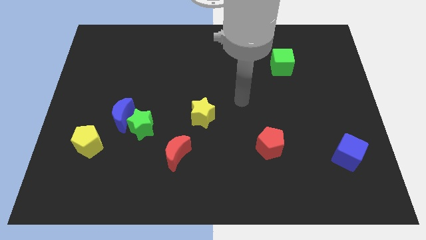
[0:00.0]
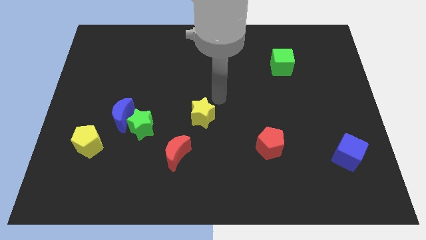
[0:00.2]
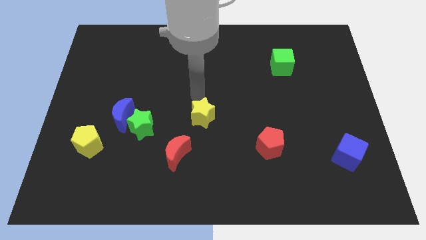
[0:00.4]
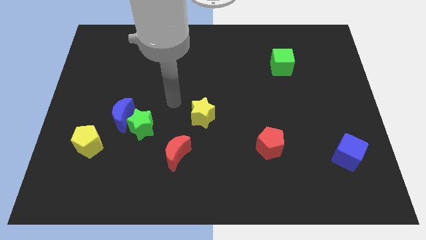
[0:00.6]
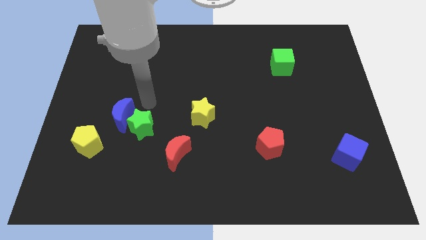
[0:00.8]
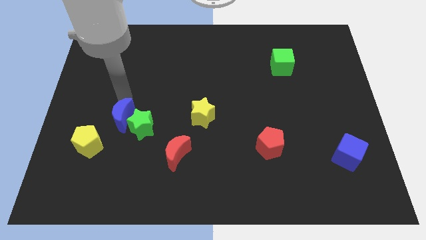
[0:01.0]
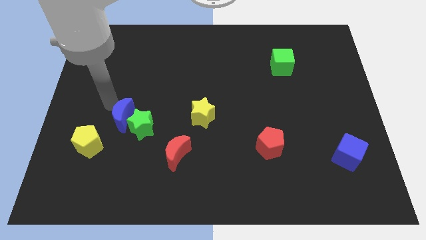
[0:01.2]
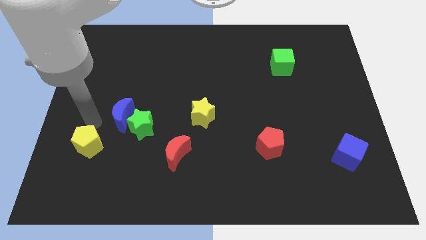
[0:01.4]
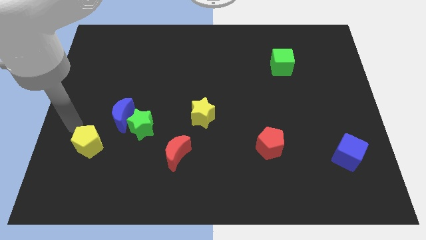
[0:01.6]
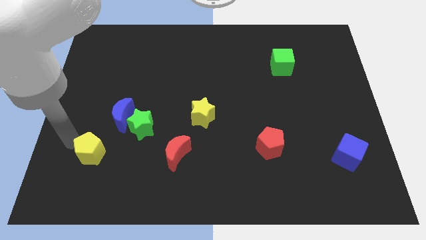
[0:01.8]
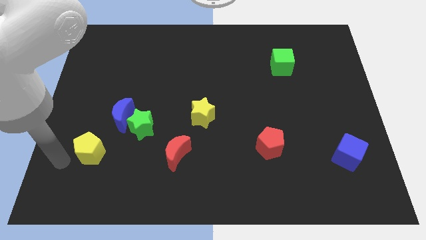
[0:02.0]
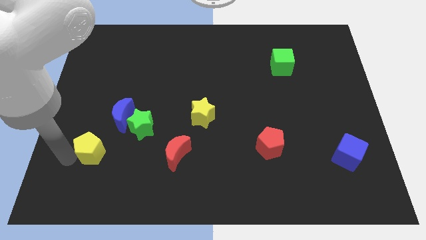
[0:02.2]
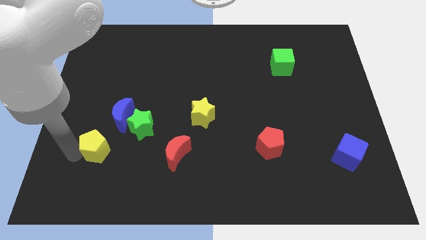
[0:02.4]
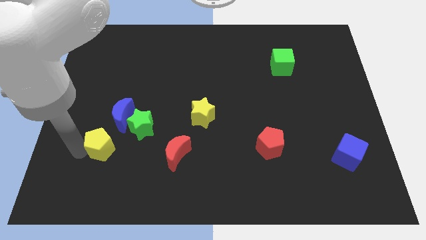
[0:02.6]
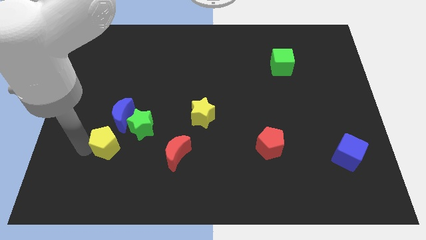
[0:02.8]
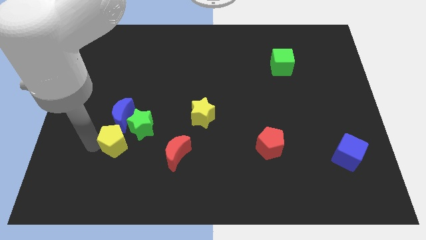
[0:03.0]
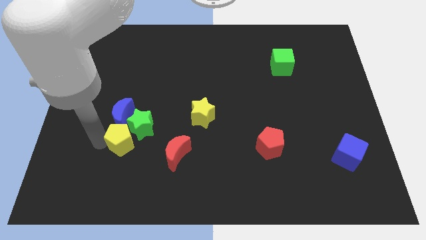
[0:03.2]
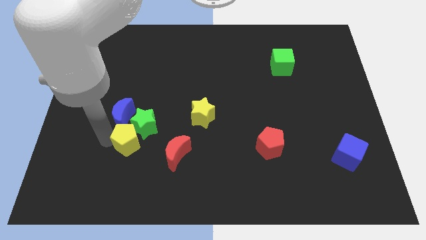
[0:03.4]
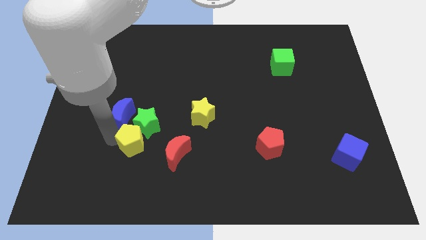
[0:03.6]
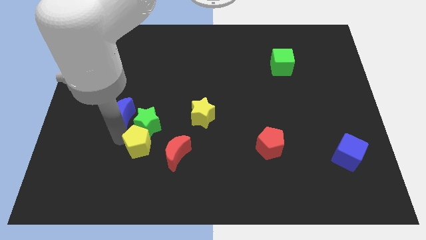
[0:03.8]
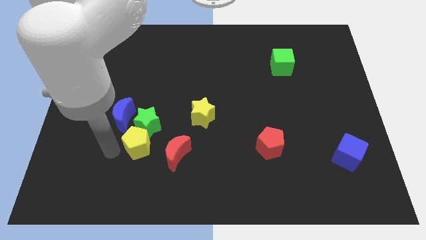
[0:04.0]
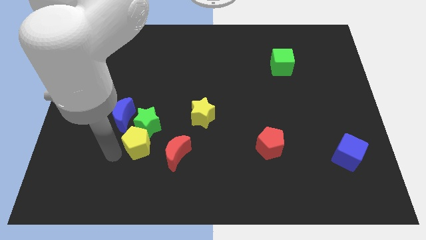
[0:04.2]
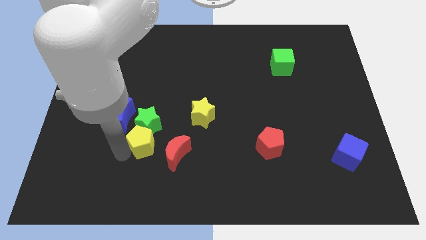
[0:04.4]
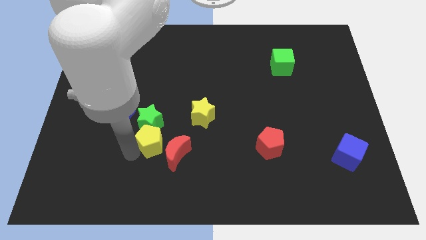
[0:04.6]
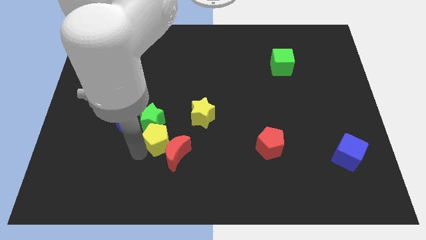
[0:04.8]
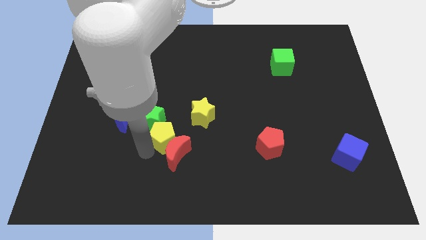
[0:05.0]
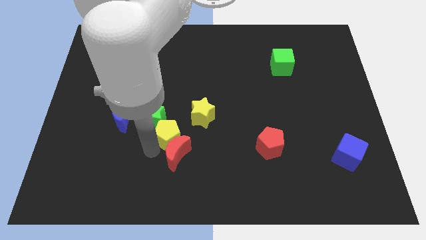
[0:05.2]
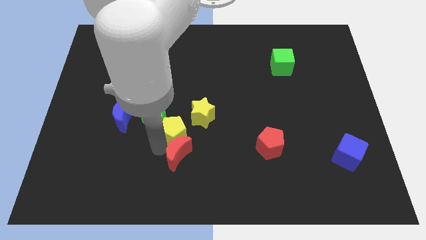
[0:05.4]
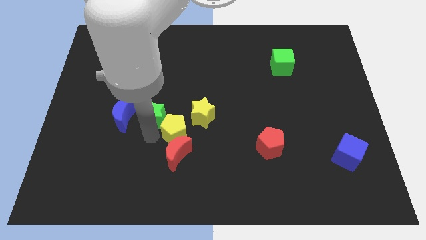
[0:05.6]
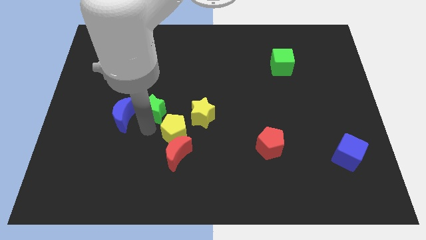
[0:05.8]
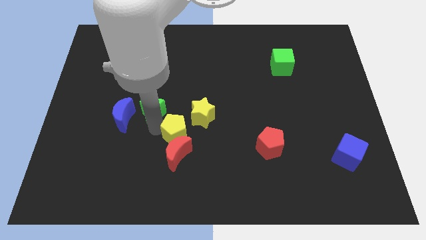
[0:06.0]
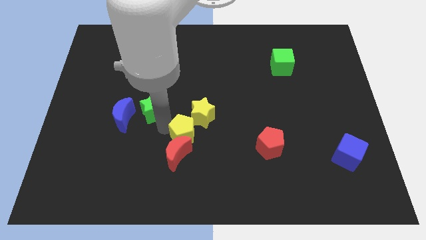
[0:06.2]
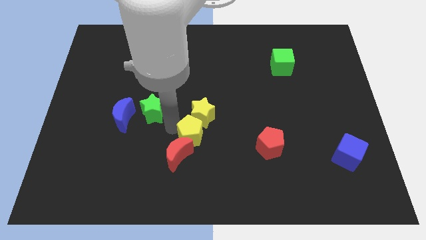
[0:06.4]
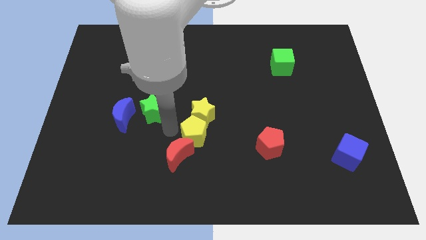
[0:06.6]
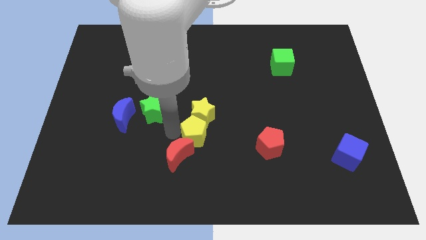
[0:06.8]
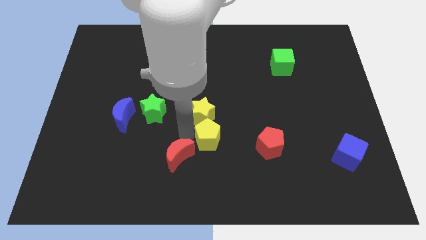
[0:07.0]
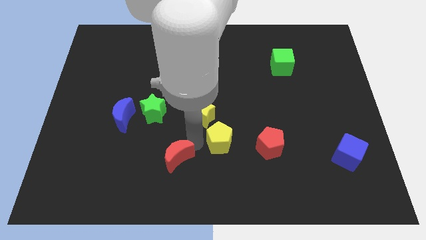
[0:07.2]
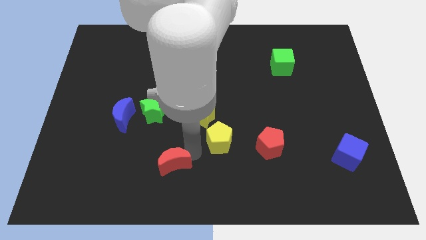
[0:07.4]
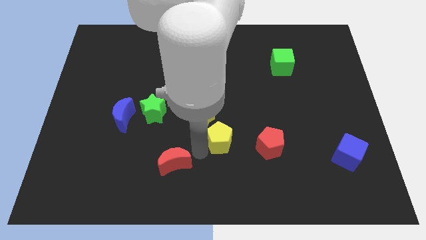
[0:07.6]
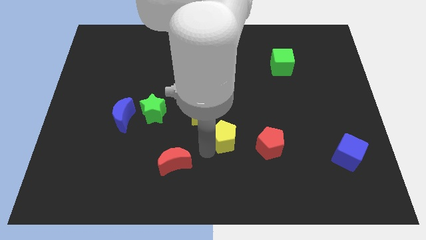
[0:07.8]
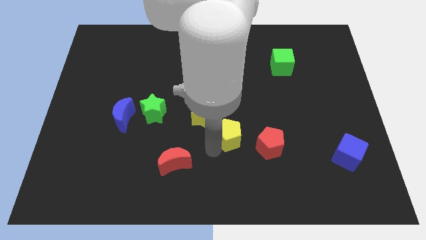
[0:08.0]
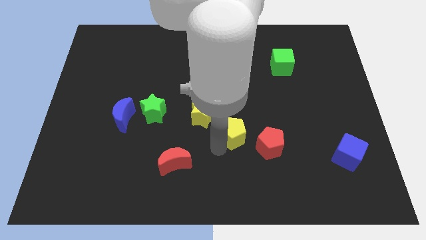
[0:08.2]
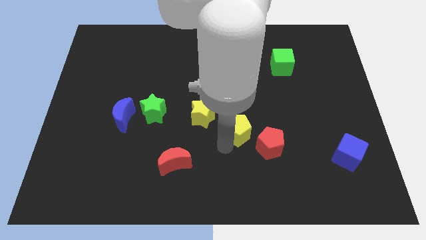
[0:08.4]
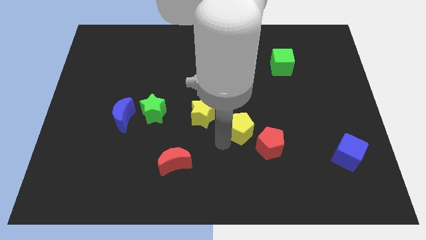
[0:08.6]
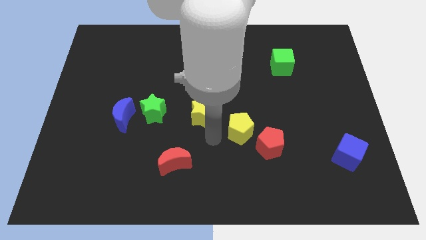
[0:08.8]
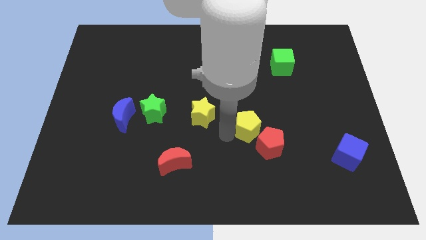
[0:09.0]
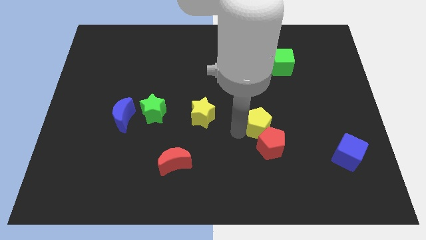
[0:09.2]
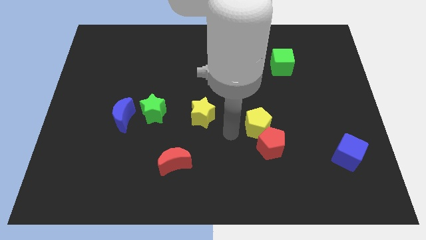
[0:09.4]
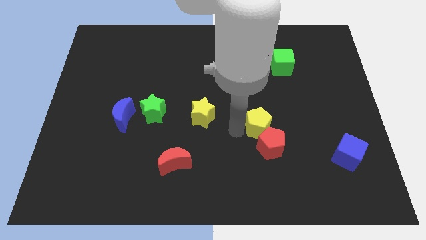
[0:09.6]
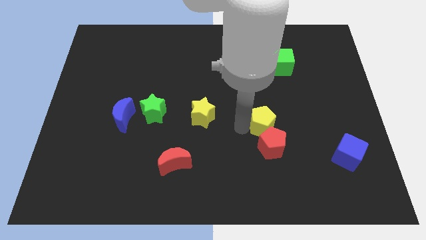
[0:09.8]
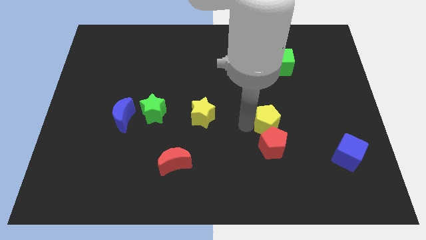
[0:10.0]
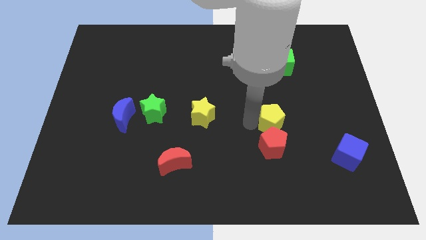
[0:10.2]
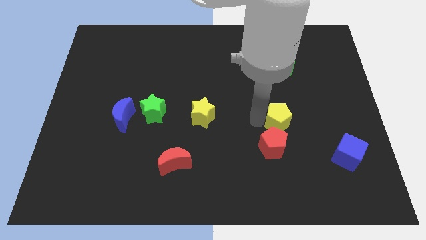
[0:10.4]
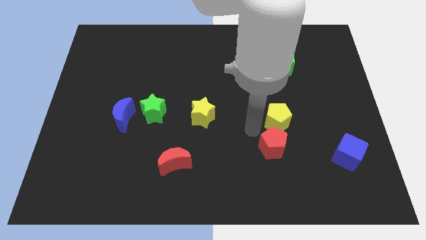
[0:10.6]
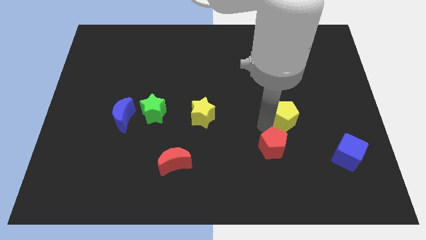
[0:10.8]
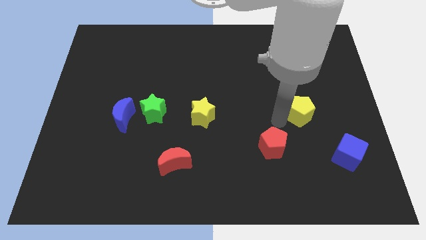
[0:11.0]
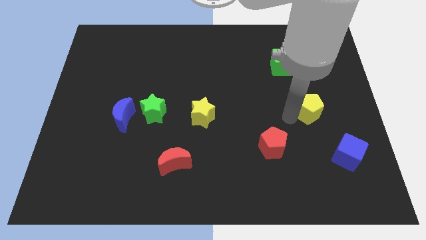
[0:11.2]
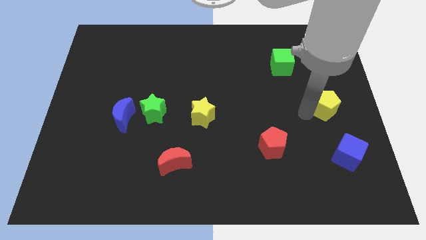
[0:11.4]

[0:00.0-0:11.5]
slide the yellow pentagon to the right side of the board
